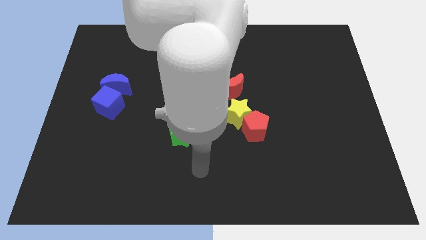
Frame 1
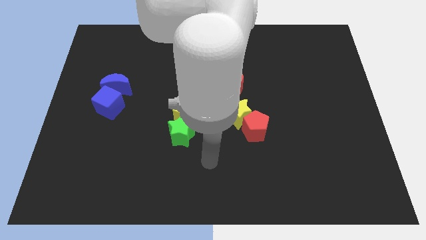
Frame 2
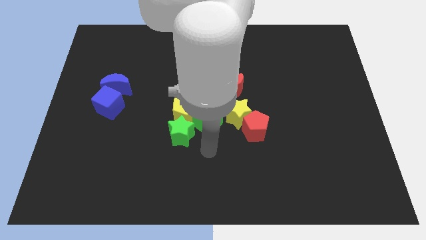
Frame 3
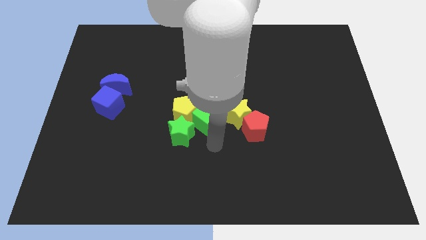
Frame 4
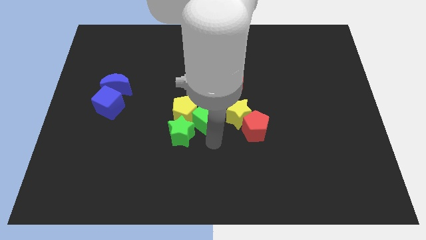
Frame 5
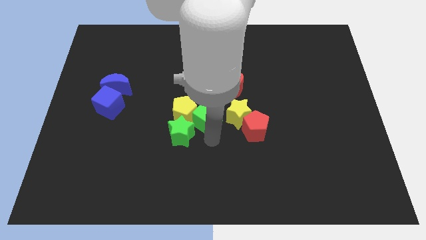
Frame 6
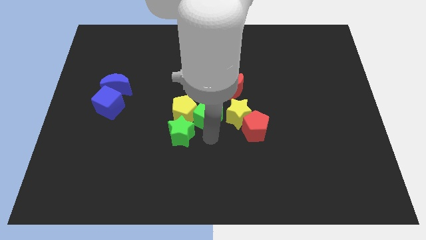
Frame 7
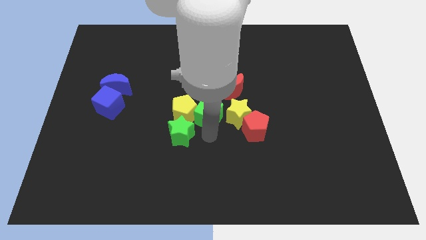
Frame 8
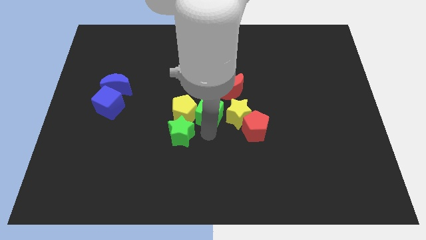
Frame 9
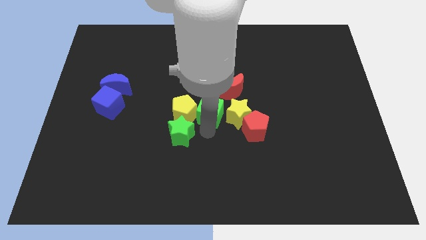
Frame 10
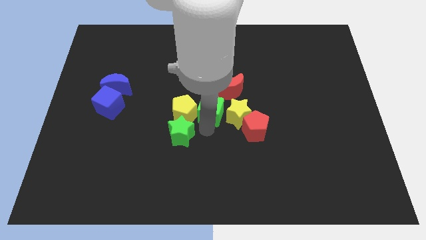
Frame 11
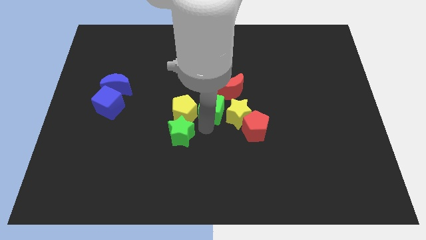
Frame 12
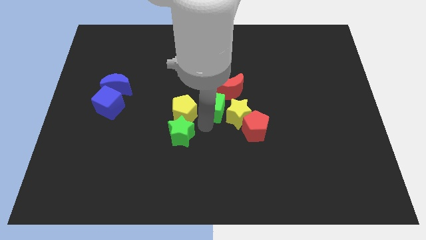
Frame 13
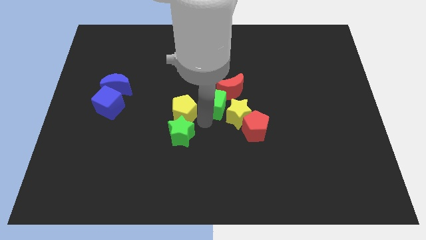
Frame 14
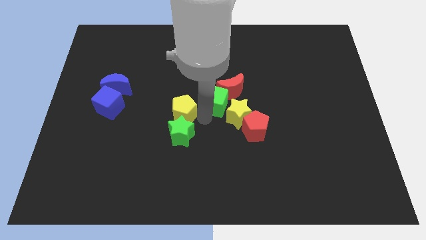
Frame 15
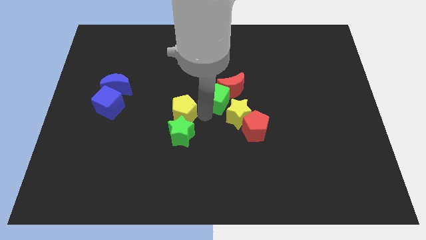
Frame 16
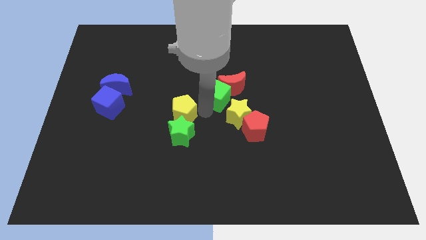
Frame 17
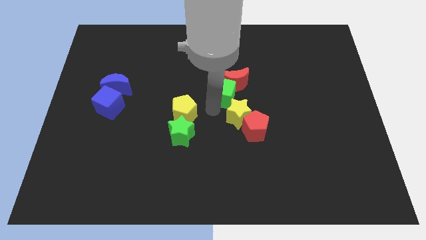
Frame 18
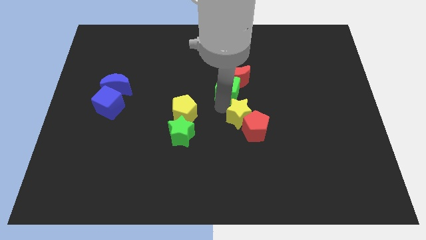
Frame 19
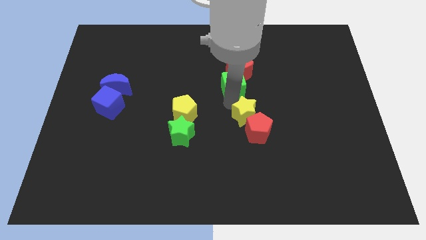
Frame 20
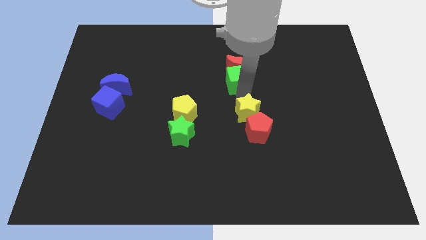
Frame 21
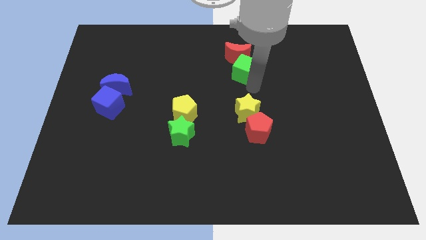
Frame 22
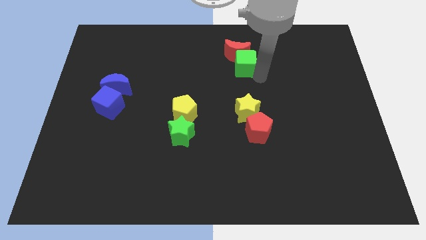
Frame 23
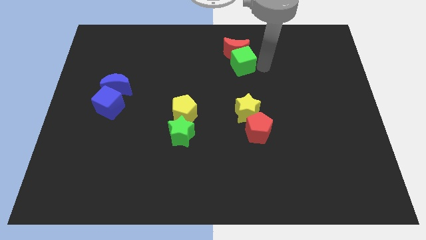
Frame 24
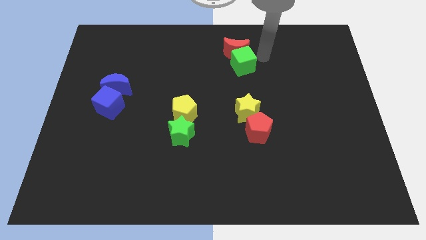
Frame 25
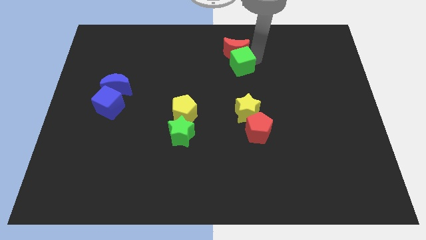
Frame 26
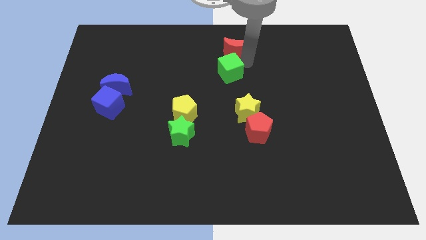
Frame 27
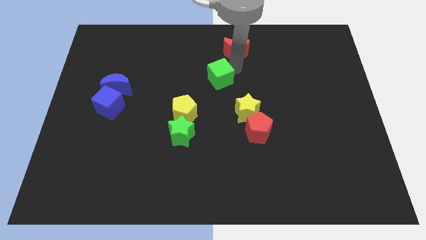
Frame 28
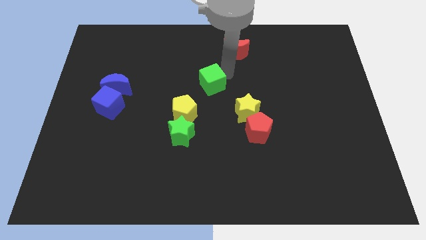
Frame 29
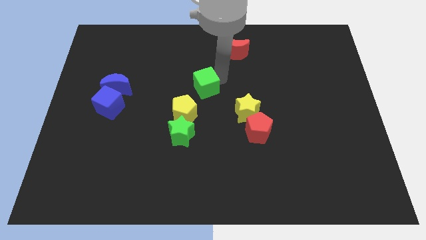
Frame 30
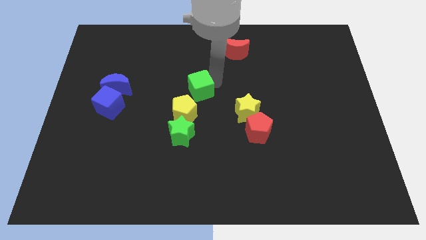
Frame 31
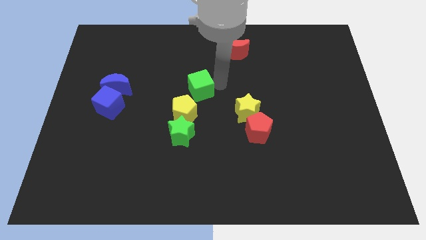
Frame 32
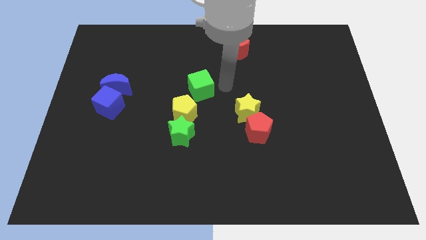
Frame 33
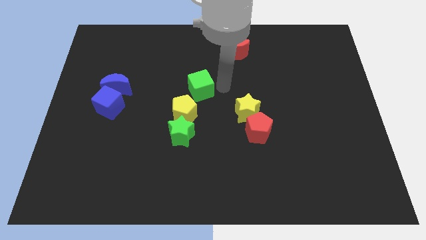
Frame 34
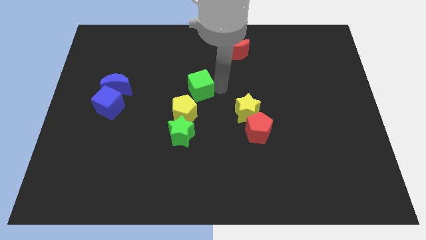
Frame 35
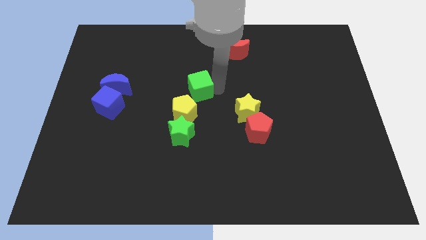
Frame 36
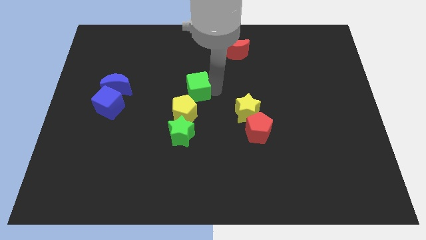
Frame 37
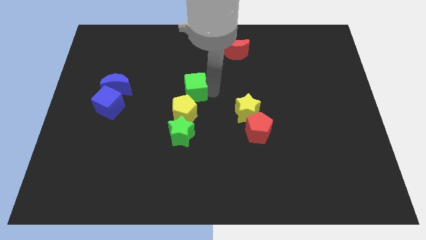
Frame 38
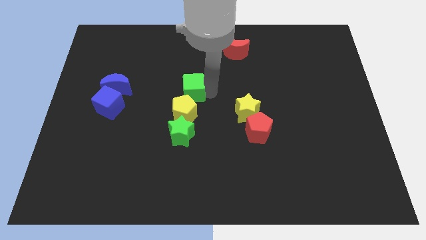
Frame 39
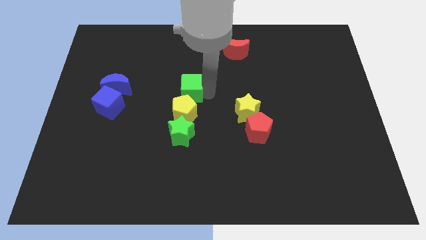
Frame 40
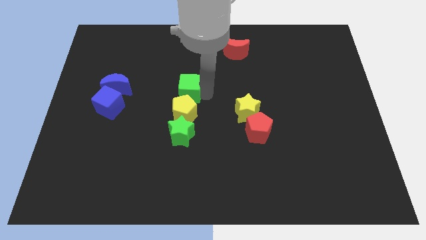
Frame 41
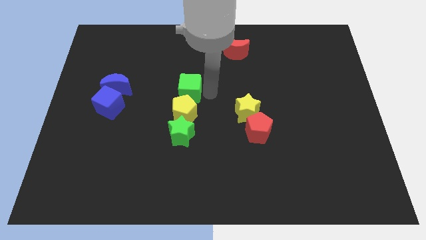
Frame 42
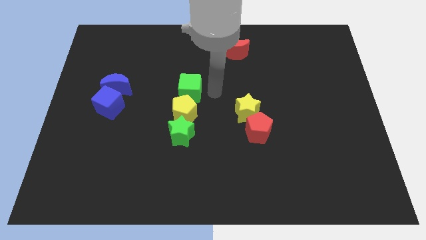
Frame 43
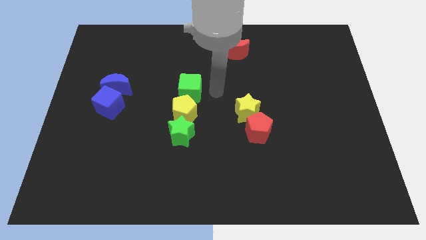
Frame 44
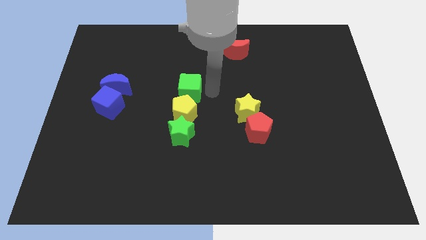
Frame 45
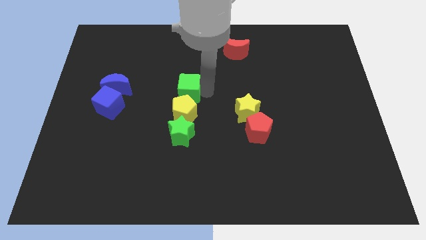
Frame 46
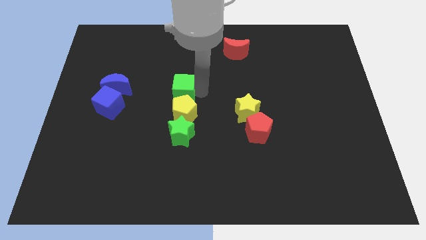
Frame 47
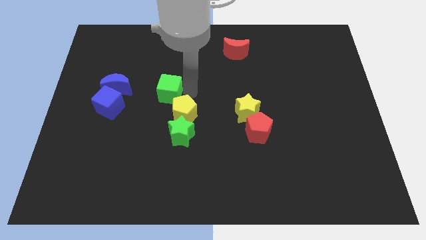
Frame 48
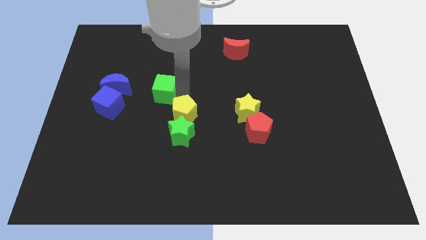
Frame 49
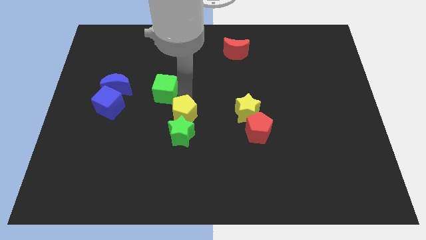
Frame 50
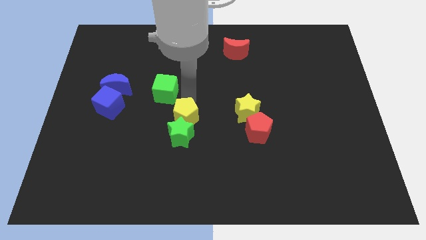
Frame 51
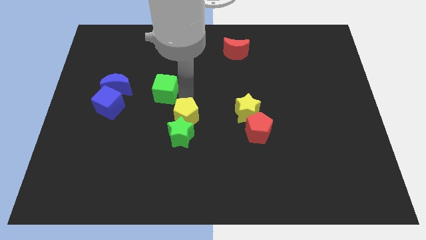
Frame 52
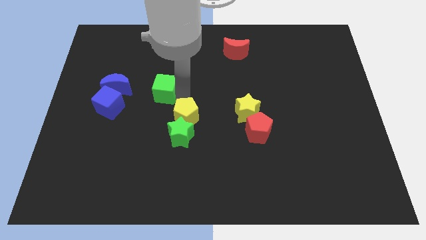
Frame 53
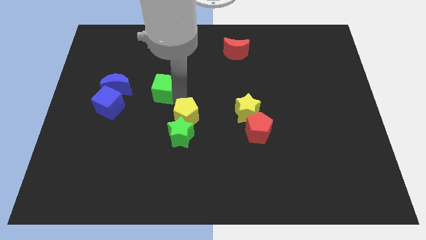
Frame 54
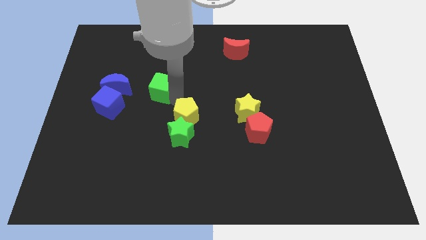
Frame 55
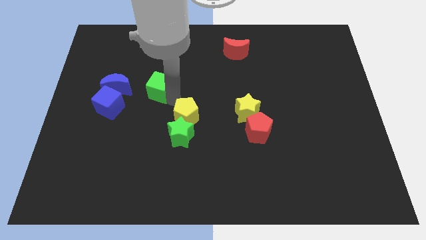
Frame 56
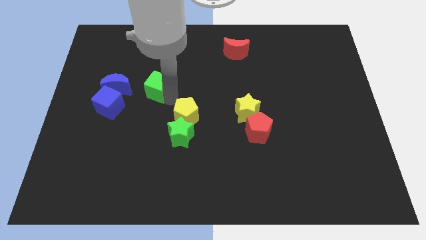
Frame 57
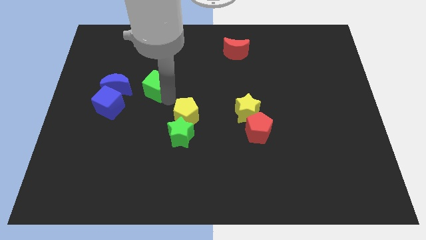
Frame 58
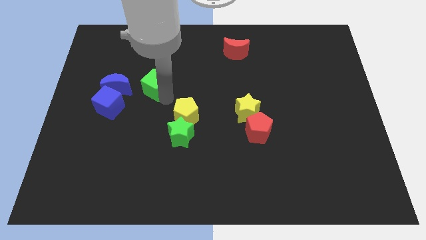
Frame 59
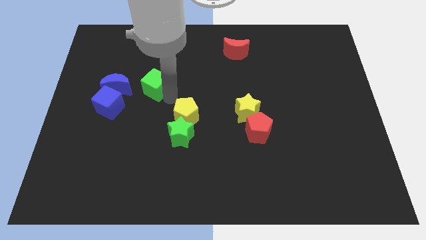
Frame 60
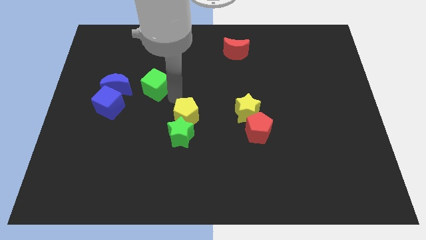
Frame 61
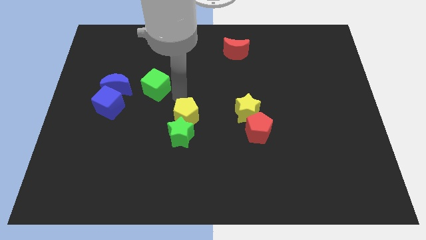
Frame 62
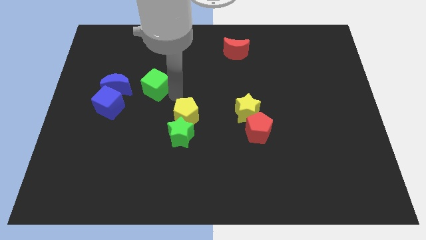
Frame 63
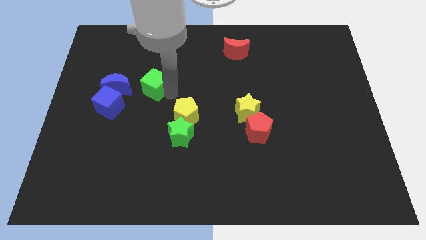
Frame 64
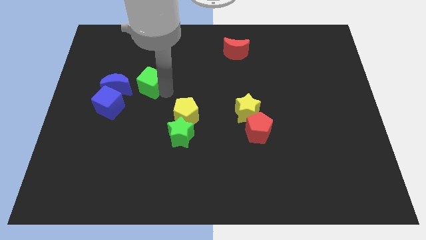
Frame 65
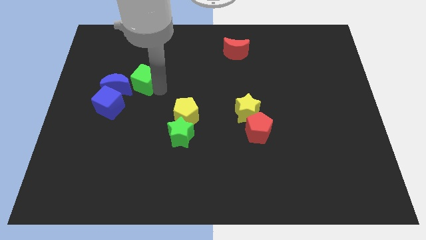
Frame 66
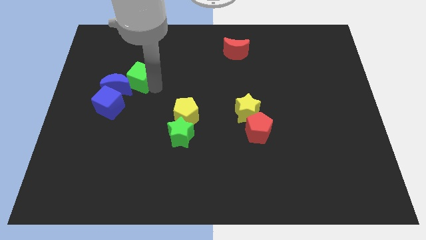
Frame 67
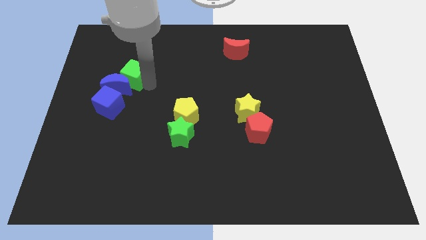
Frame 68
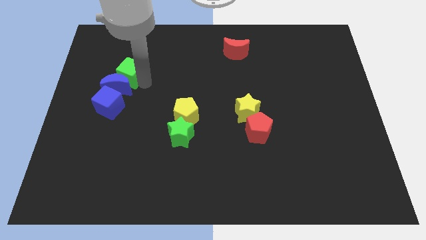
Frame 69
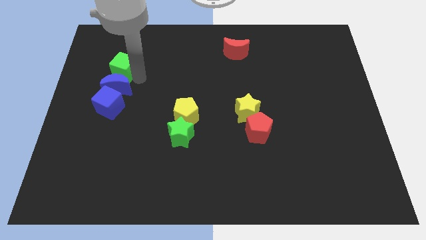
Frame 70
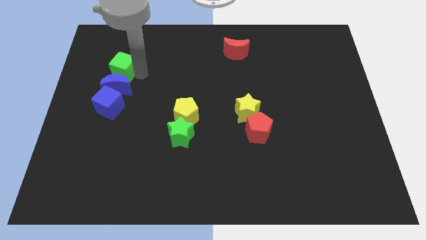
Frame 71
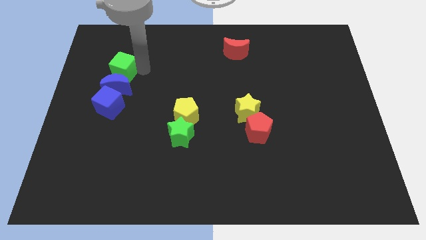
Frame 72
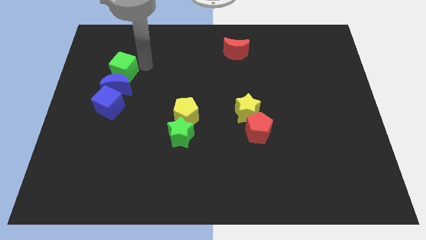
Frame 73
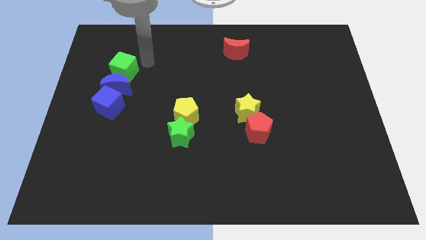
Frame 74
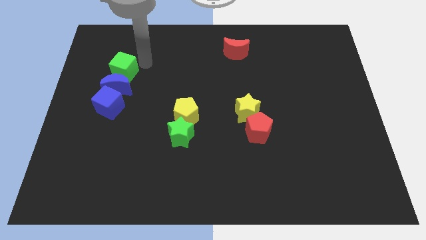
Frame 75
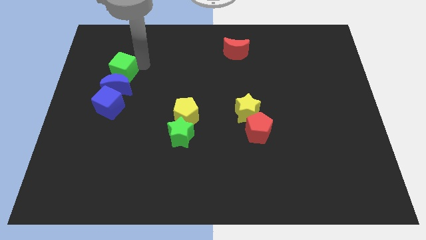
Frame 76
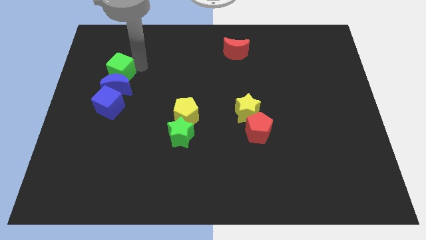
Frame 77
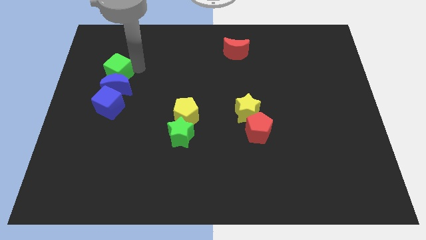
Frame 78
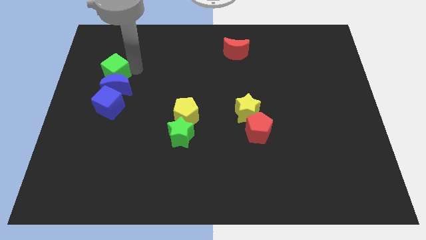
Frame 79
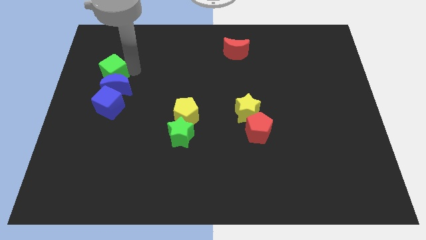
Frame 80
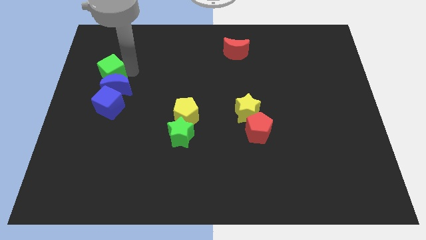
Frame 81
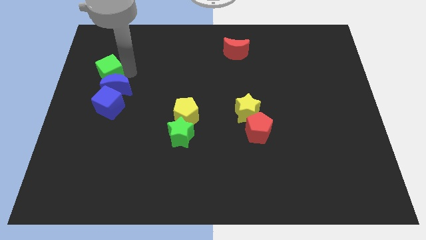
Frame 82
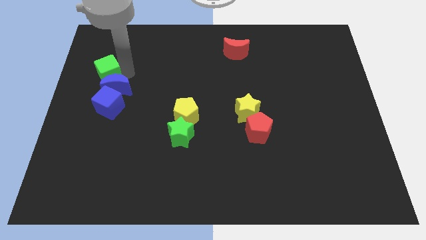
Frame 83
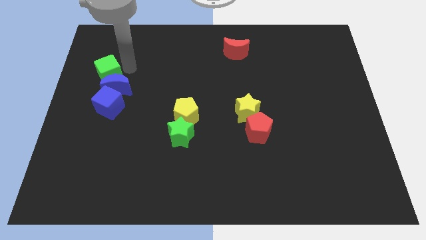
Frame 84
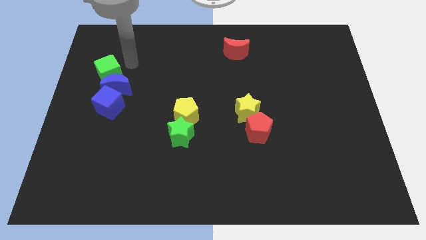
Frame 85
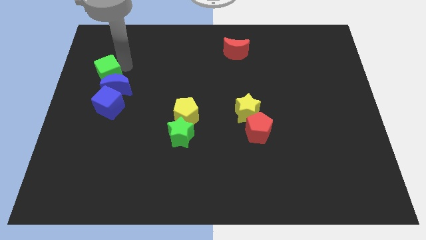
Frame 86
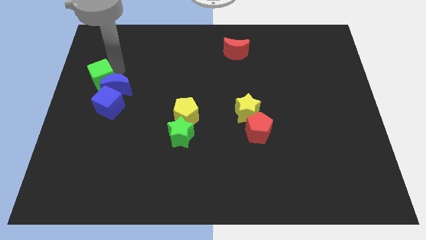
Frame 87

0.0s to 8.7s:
put the green cube to the left side
